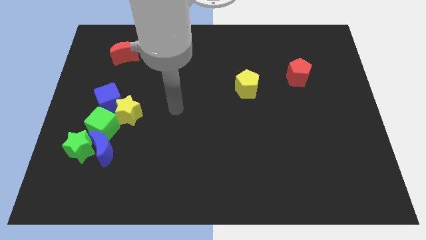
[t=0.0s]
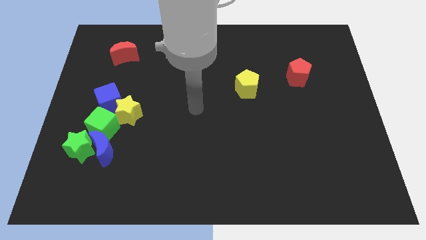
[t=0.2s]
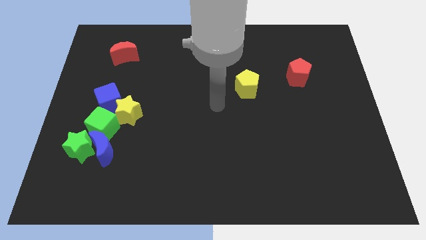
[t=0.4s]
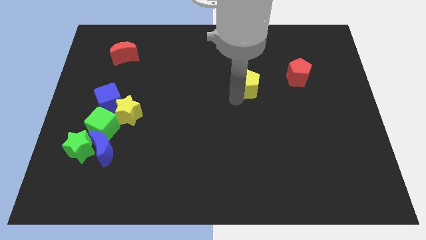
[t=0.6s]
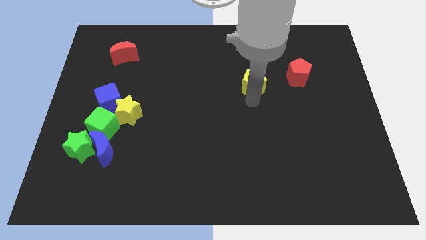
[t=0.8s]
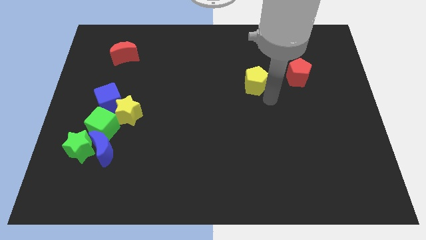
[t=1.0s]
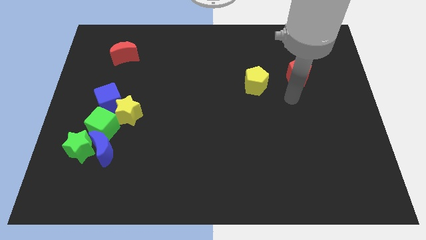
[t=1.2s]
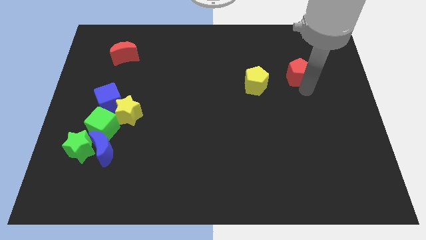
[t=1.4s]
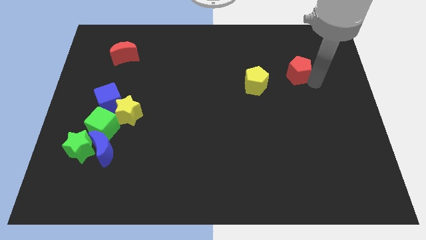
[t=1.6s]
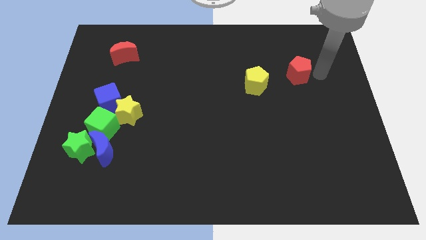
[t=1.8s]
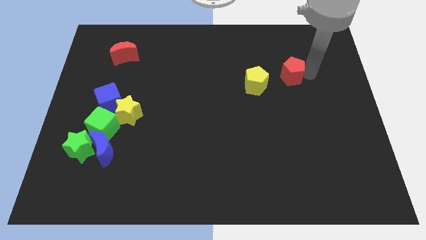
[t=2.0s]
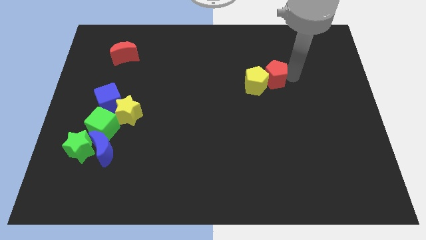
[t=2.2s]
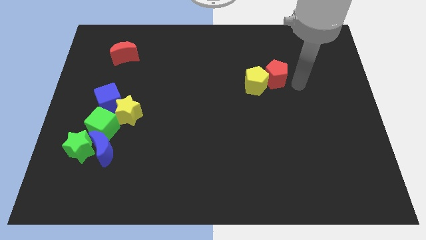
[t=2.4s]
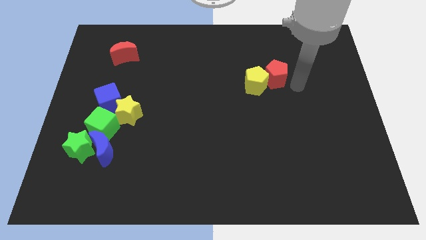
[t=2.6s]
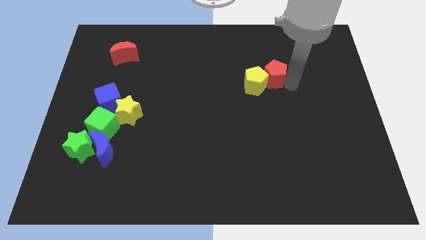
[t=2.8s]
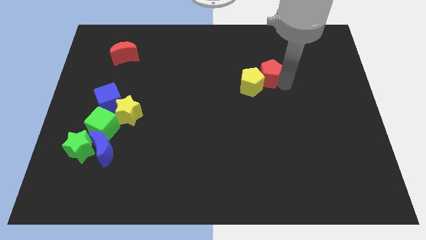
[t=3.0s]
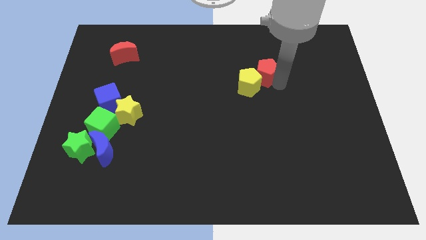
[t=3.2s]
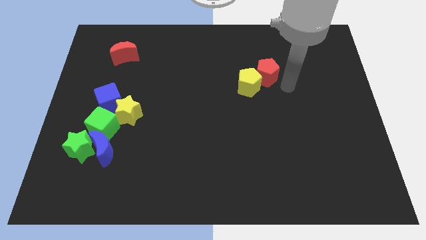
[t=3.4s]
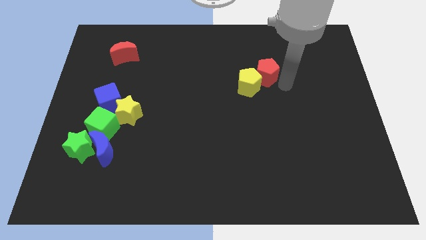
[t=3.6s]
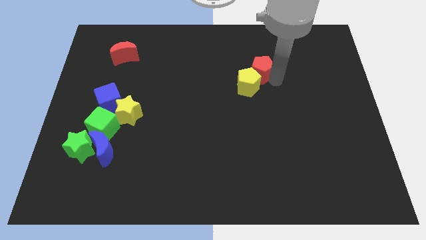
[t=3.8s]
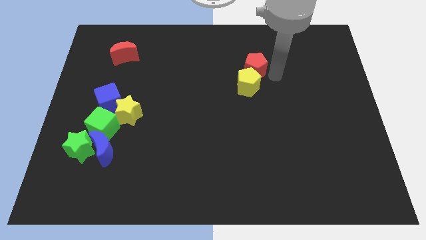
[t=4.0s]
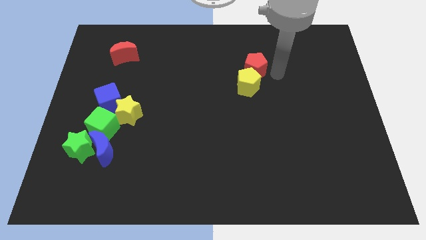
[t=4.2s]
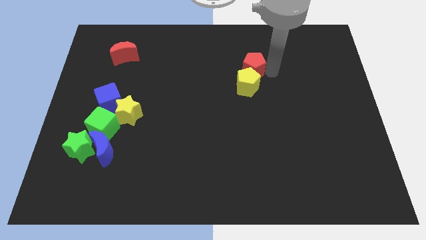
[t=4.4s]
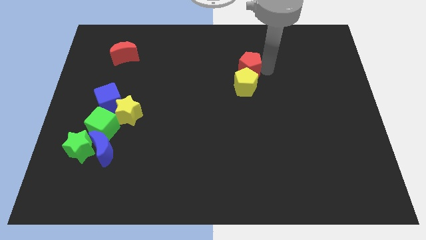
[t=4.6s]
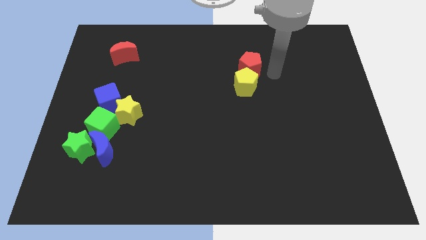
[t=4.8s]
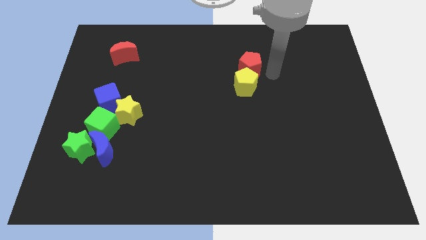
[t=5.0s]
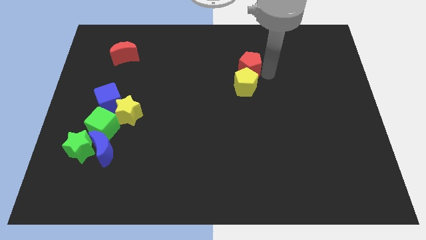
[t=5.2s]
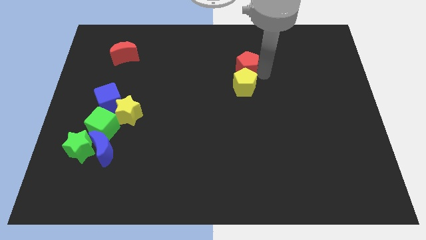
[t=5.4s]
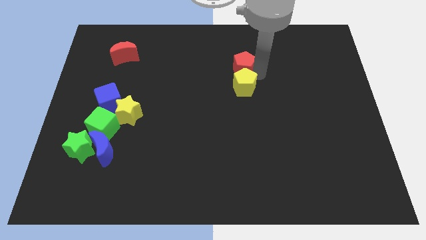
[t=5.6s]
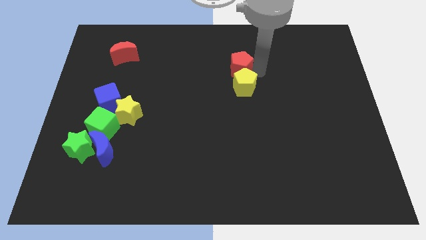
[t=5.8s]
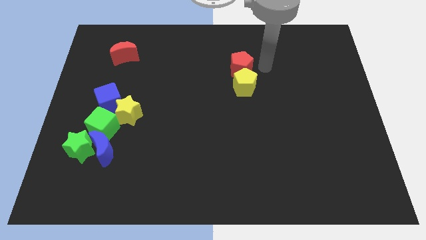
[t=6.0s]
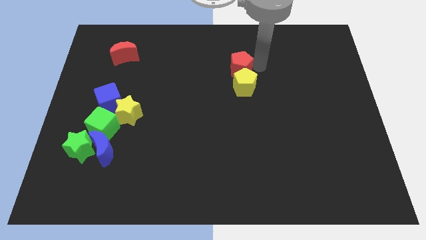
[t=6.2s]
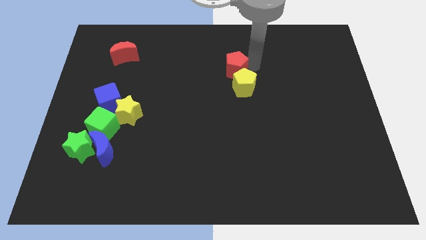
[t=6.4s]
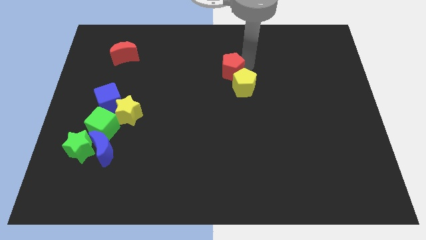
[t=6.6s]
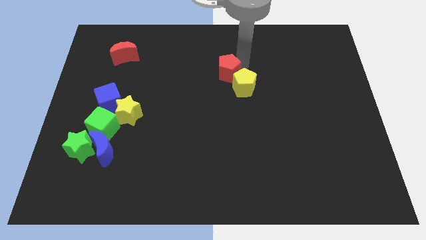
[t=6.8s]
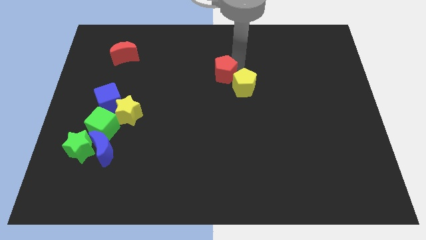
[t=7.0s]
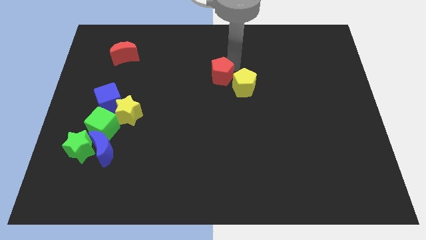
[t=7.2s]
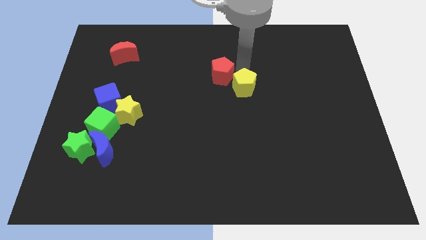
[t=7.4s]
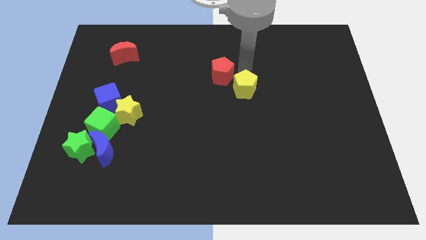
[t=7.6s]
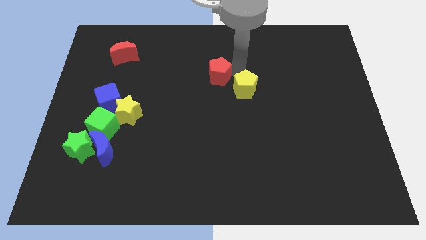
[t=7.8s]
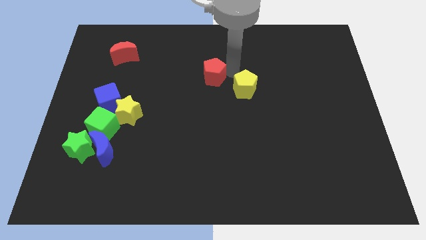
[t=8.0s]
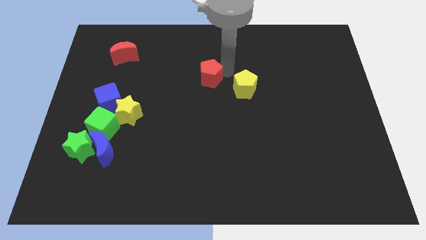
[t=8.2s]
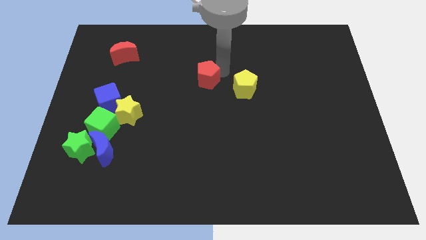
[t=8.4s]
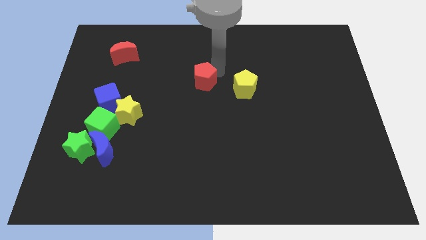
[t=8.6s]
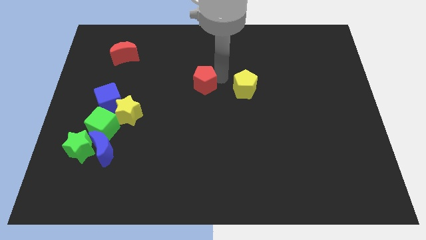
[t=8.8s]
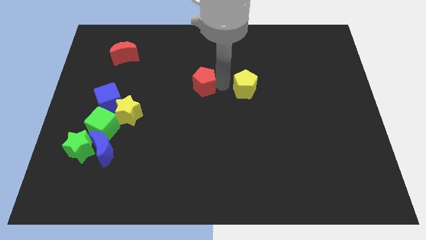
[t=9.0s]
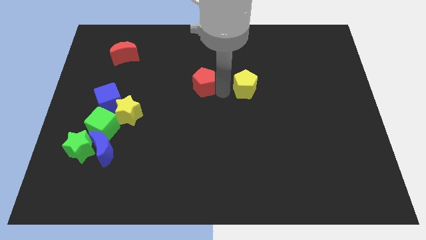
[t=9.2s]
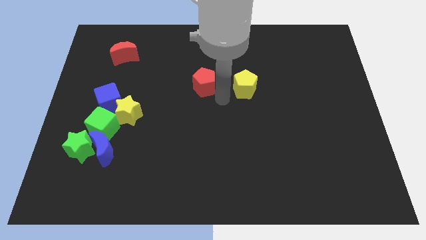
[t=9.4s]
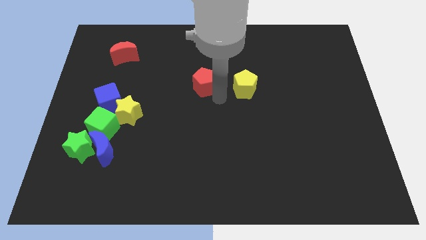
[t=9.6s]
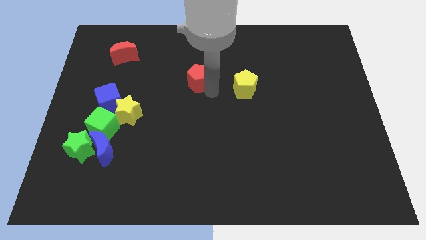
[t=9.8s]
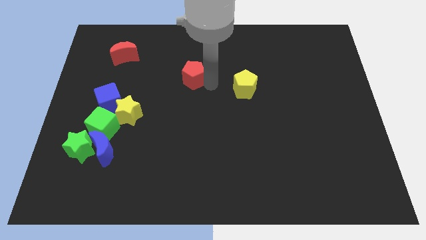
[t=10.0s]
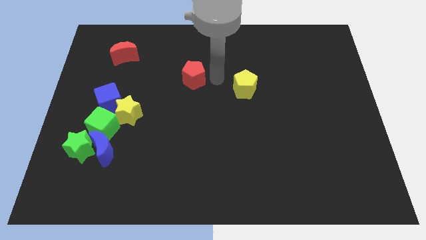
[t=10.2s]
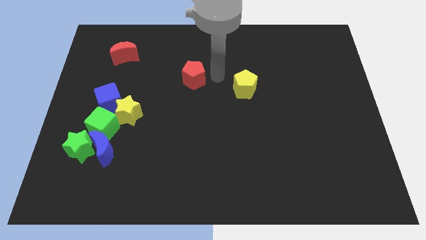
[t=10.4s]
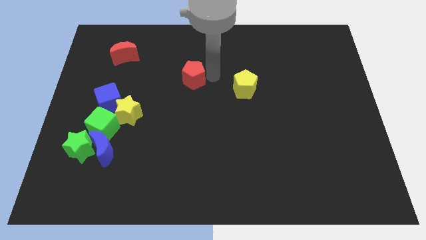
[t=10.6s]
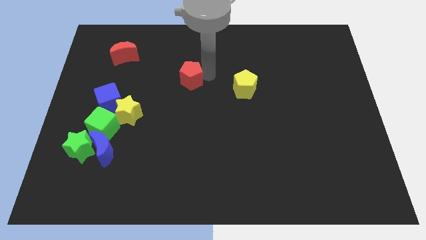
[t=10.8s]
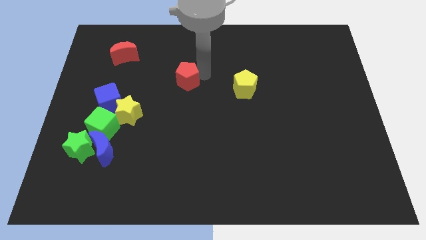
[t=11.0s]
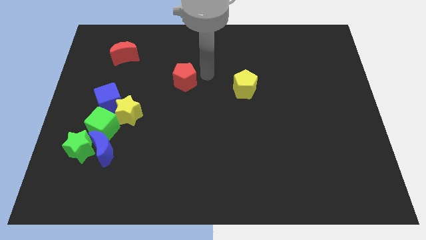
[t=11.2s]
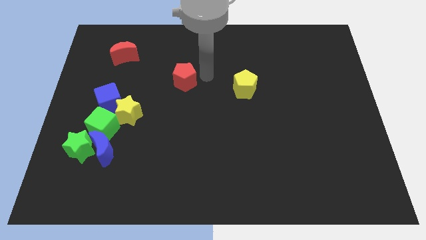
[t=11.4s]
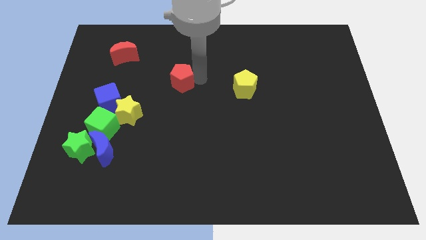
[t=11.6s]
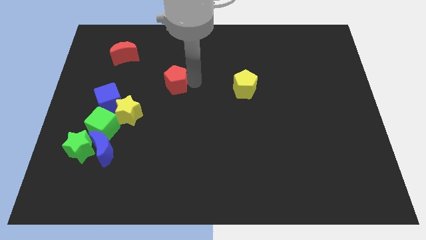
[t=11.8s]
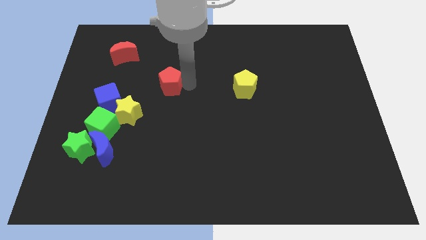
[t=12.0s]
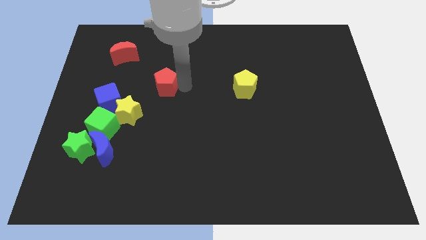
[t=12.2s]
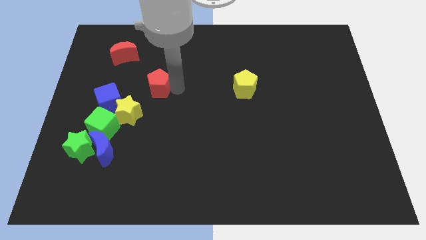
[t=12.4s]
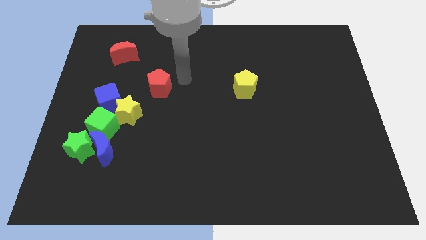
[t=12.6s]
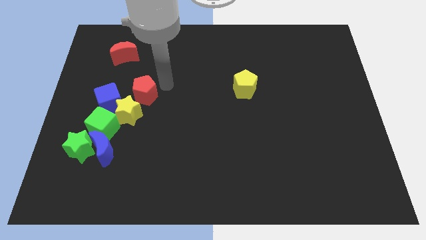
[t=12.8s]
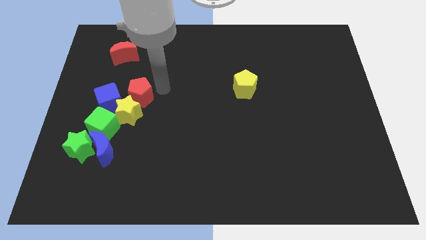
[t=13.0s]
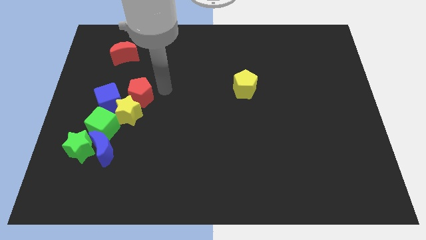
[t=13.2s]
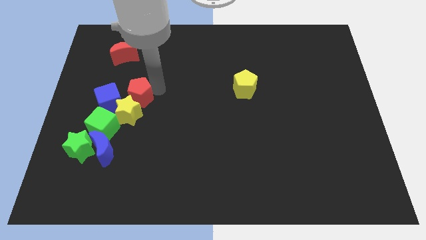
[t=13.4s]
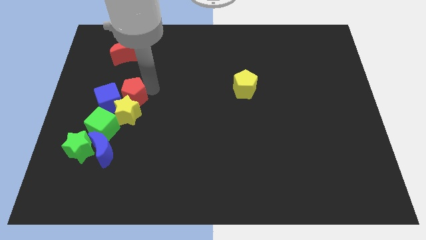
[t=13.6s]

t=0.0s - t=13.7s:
slide the red pentagon close to the blue cube
